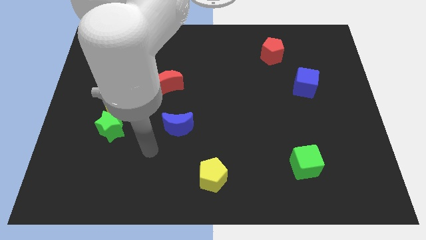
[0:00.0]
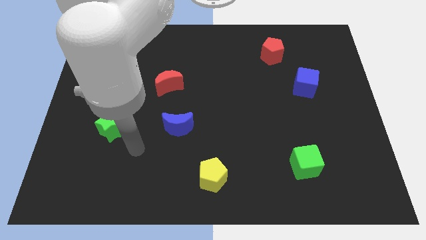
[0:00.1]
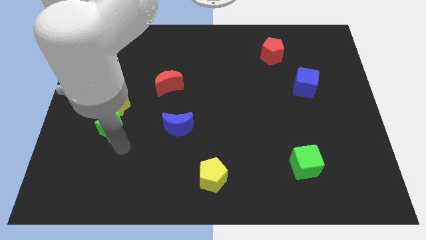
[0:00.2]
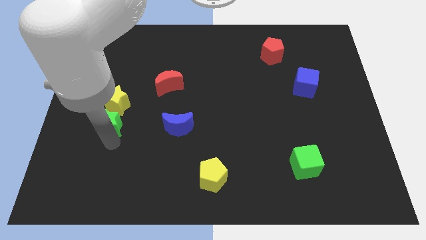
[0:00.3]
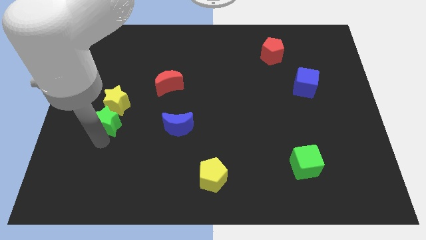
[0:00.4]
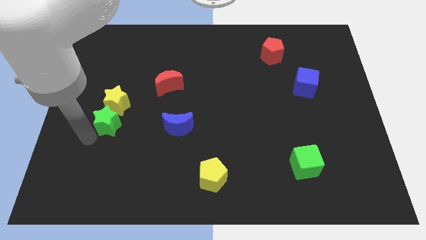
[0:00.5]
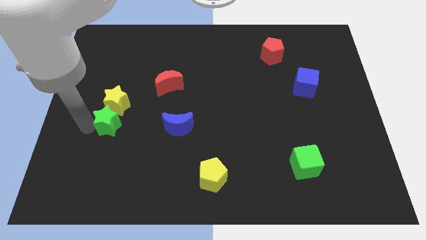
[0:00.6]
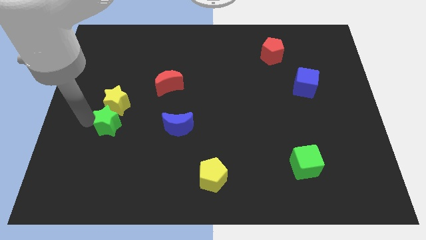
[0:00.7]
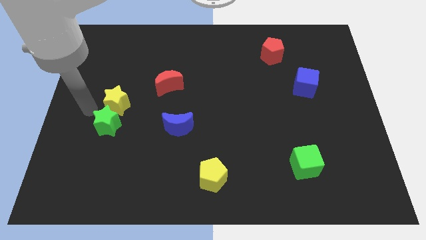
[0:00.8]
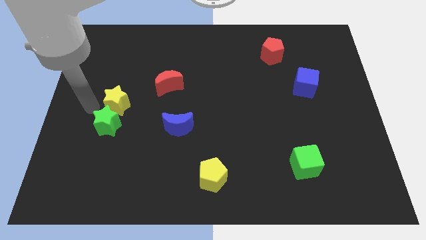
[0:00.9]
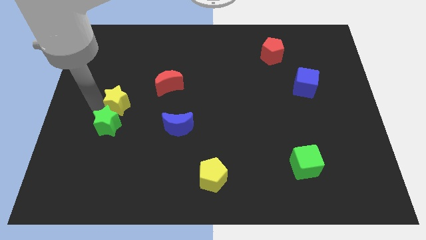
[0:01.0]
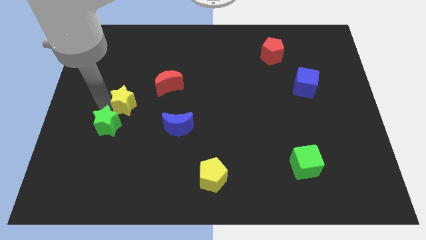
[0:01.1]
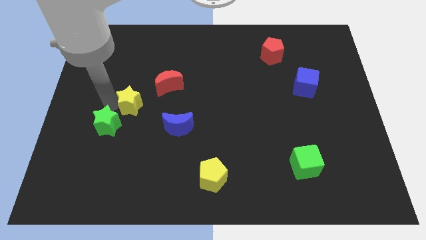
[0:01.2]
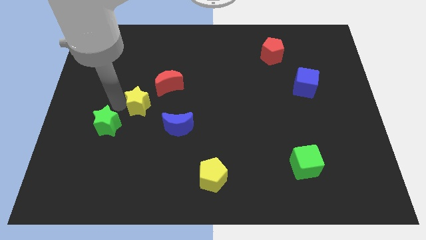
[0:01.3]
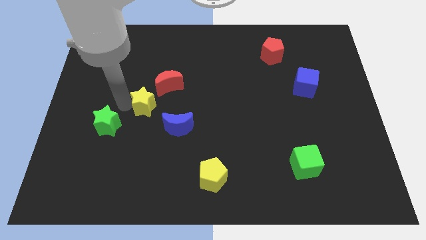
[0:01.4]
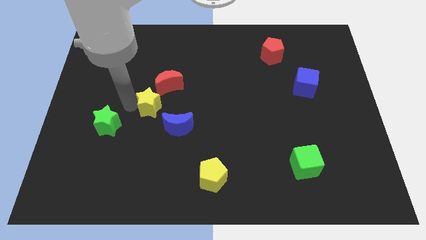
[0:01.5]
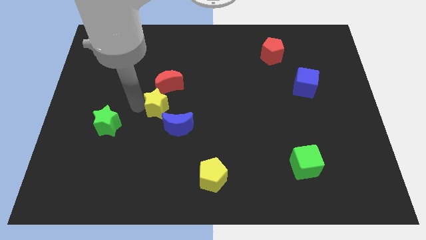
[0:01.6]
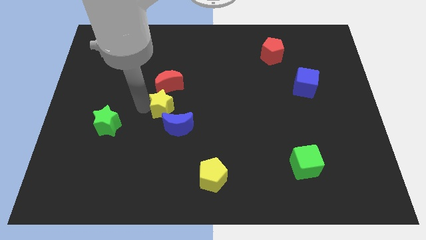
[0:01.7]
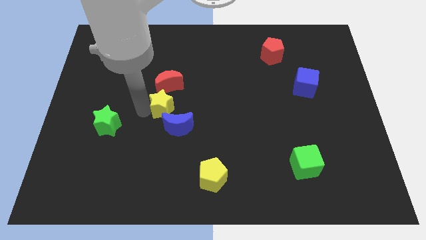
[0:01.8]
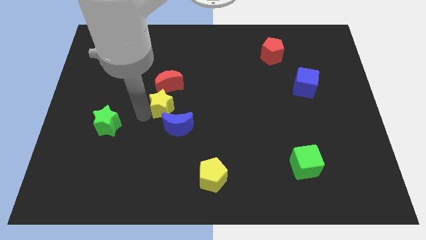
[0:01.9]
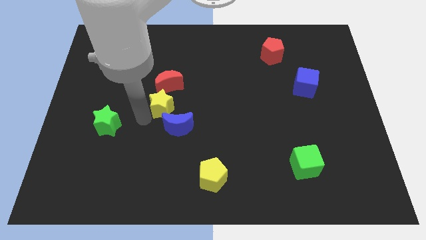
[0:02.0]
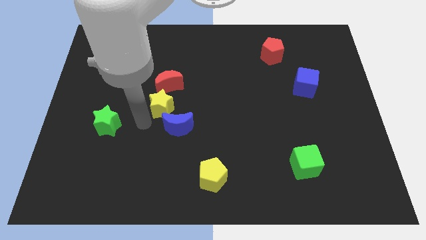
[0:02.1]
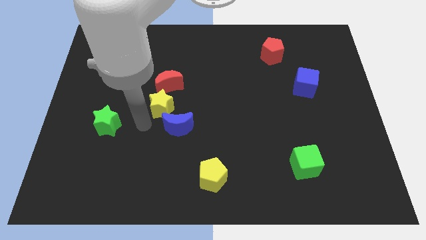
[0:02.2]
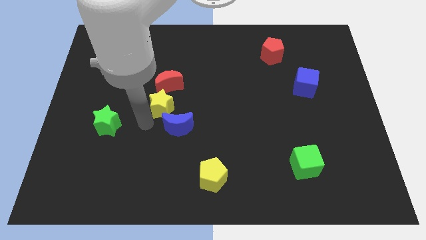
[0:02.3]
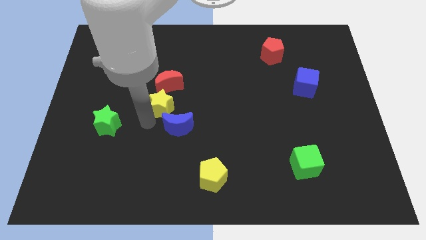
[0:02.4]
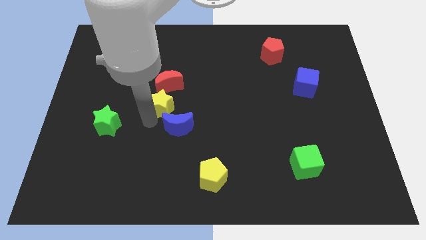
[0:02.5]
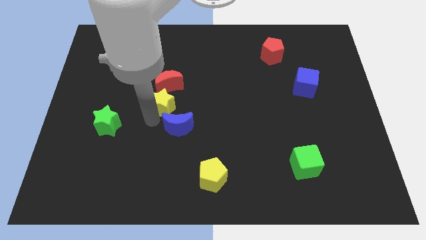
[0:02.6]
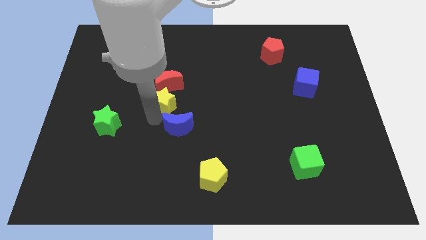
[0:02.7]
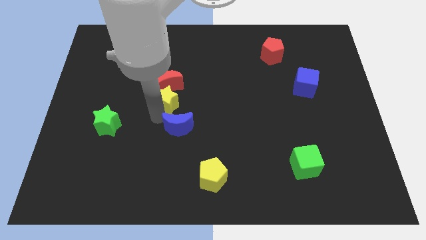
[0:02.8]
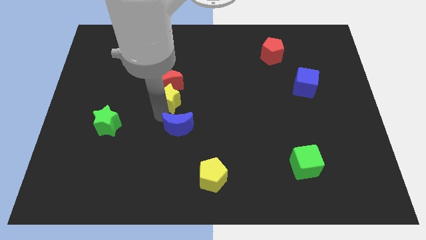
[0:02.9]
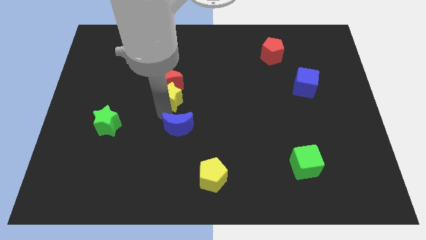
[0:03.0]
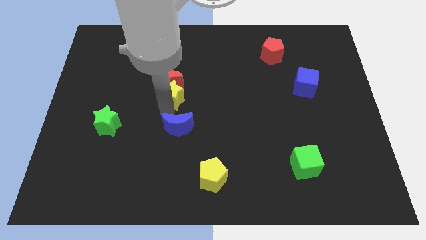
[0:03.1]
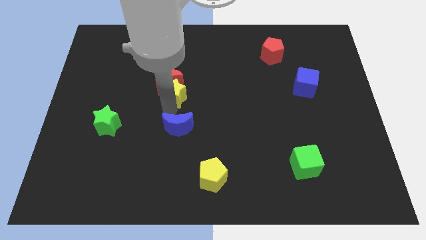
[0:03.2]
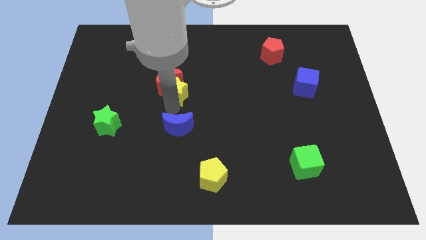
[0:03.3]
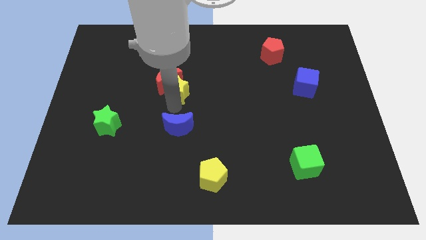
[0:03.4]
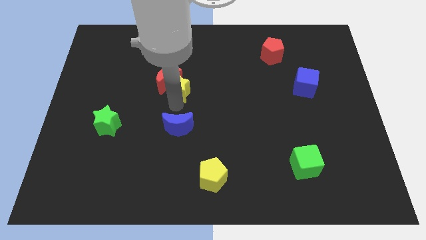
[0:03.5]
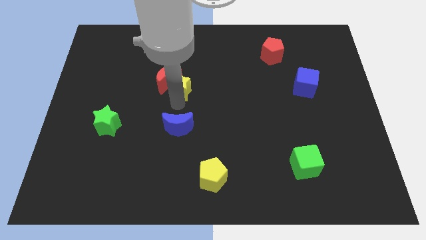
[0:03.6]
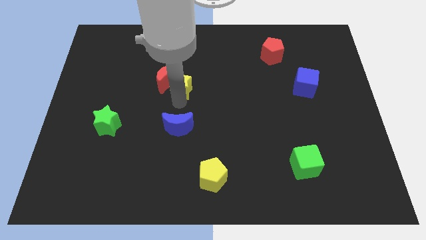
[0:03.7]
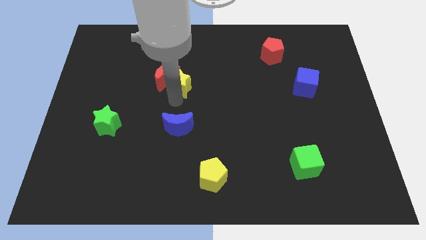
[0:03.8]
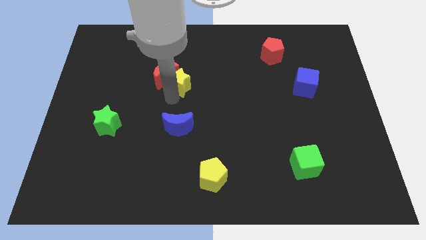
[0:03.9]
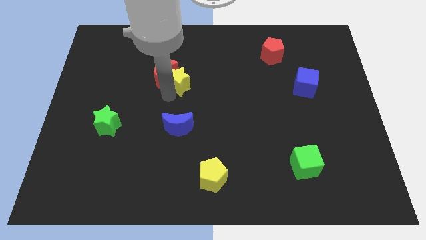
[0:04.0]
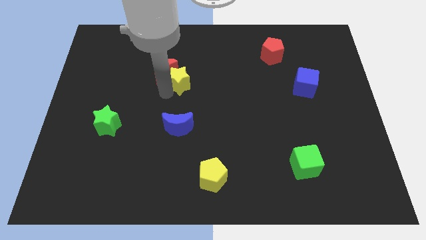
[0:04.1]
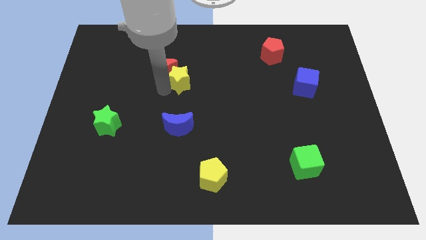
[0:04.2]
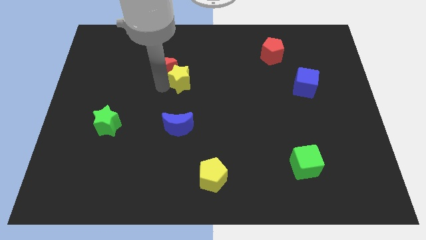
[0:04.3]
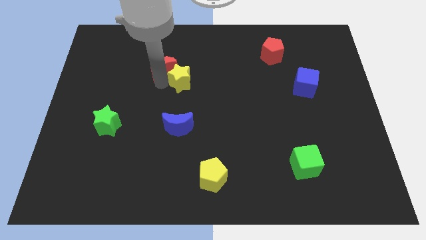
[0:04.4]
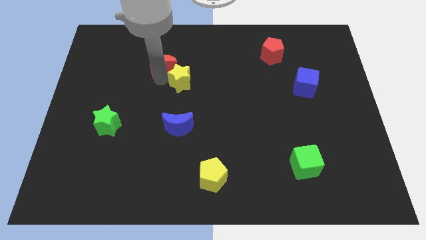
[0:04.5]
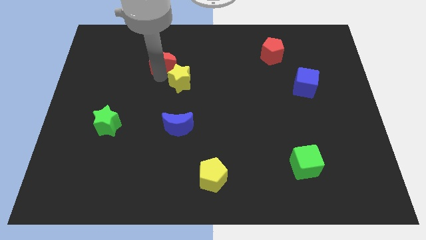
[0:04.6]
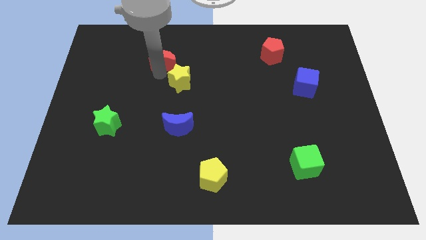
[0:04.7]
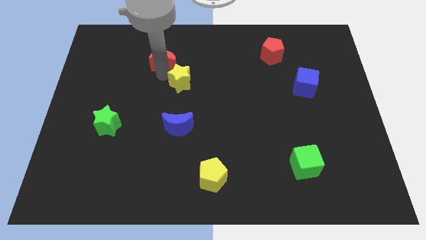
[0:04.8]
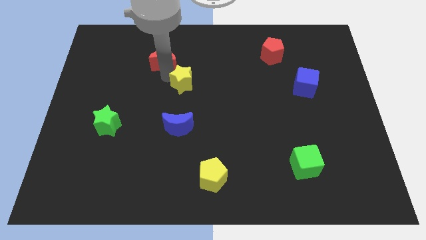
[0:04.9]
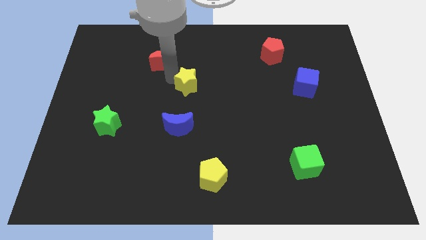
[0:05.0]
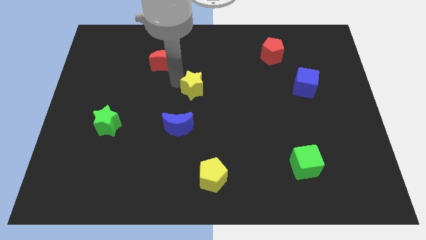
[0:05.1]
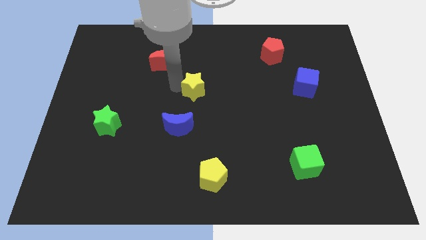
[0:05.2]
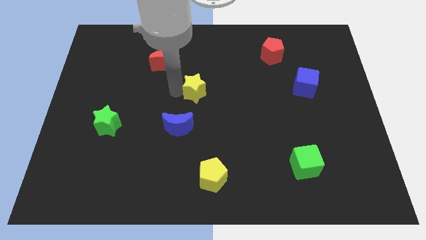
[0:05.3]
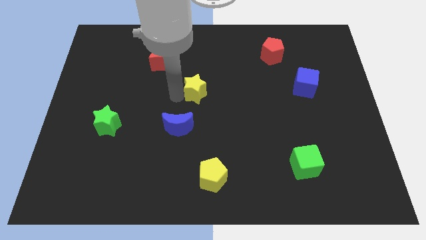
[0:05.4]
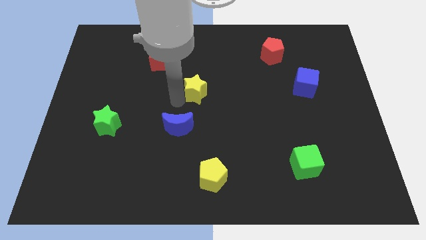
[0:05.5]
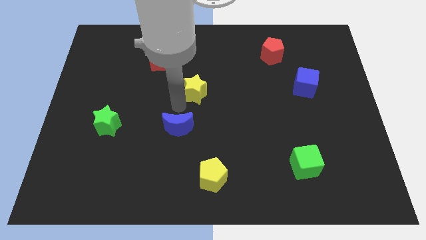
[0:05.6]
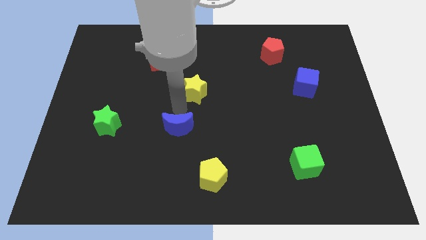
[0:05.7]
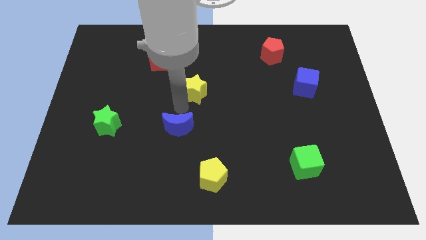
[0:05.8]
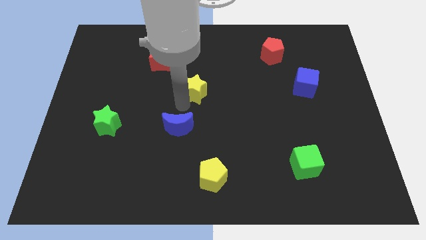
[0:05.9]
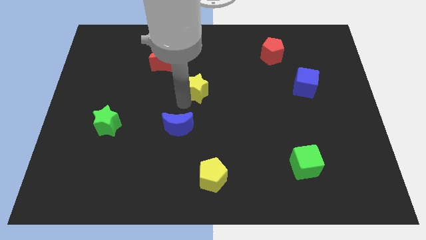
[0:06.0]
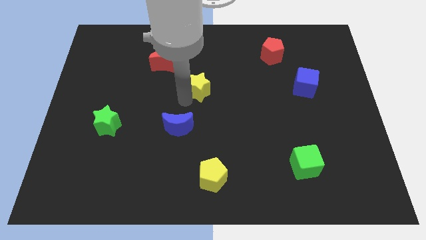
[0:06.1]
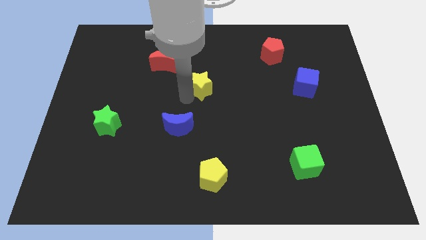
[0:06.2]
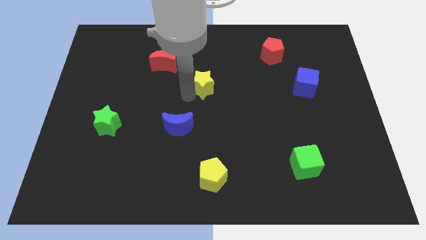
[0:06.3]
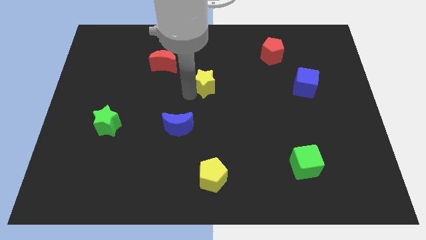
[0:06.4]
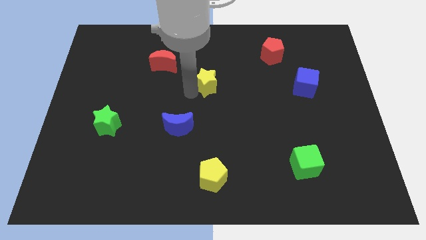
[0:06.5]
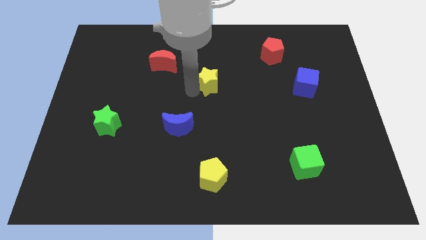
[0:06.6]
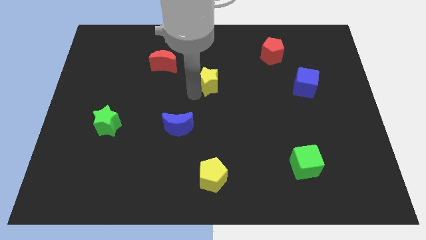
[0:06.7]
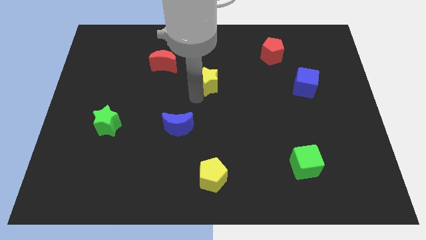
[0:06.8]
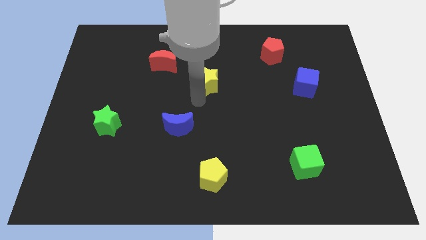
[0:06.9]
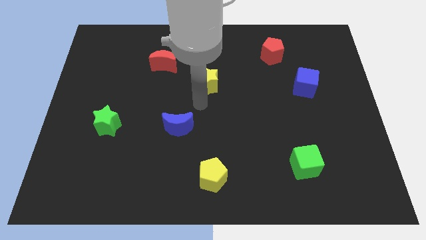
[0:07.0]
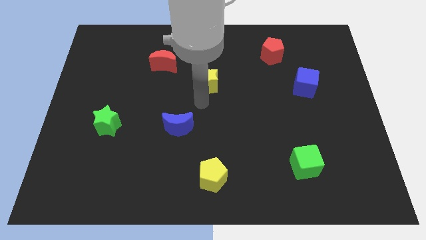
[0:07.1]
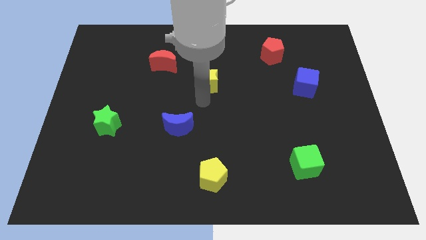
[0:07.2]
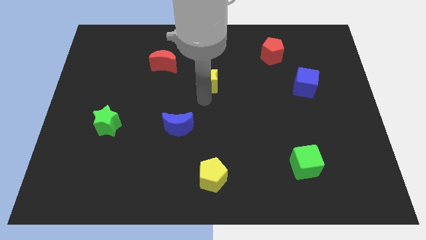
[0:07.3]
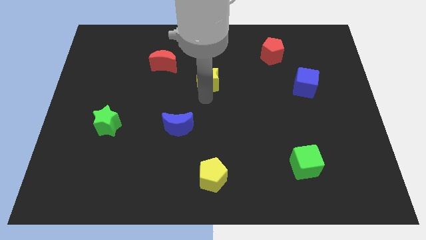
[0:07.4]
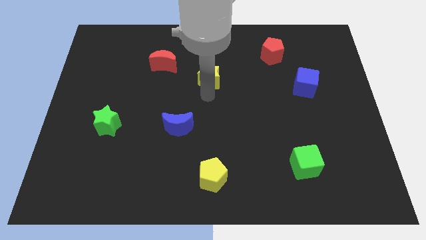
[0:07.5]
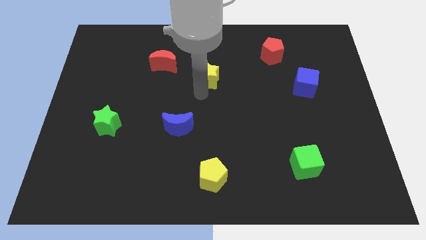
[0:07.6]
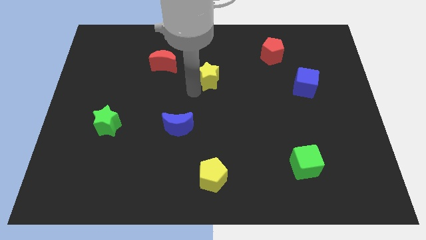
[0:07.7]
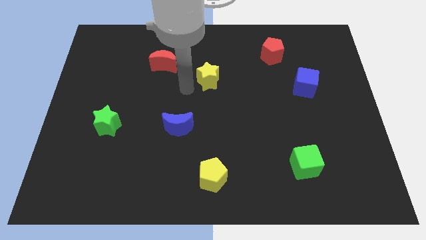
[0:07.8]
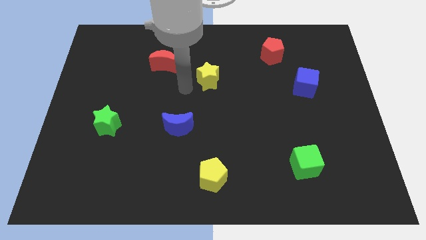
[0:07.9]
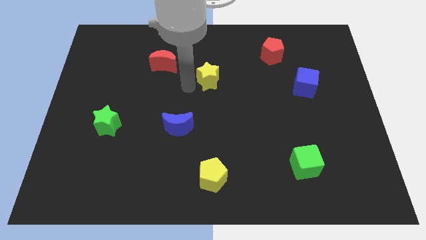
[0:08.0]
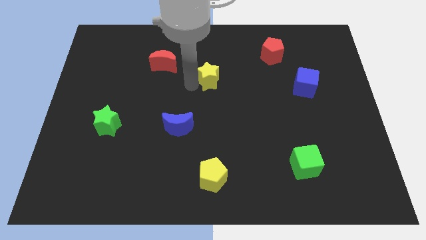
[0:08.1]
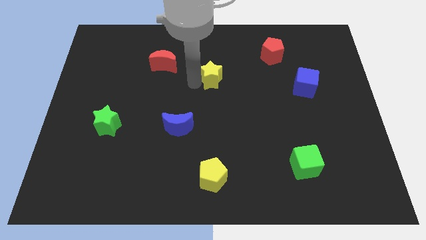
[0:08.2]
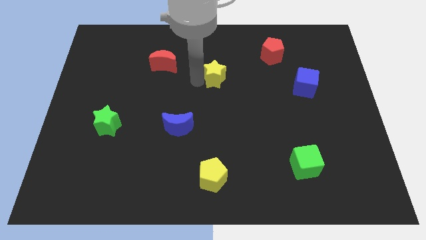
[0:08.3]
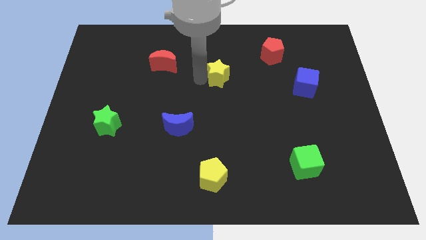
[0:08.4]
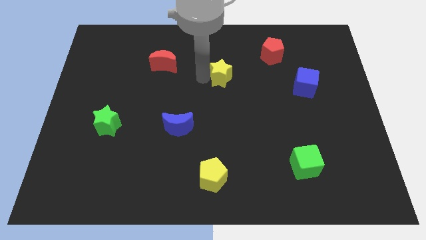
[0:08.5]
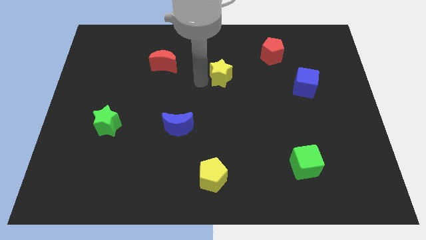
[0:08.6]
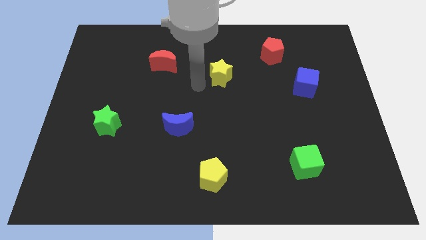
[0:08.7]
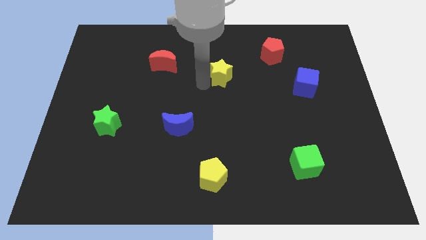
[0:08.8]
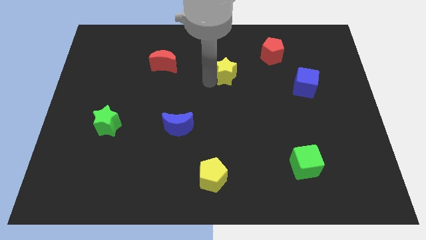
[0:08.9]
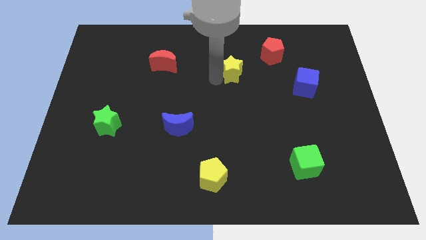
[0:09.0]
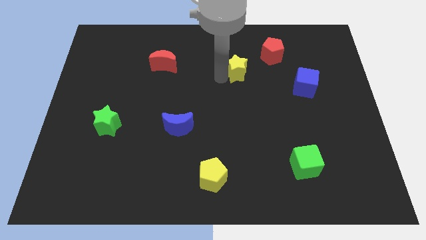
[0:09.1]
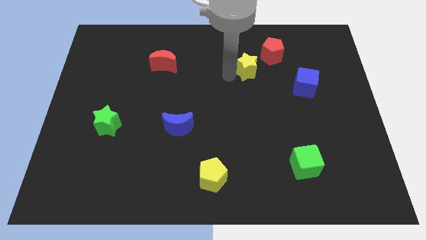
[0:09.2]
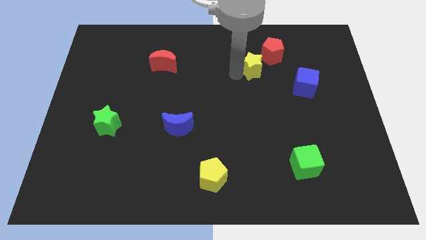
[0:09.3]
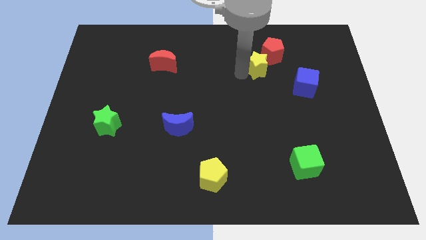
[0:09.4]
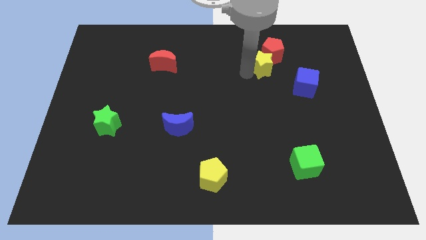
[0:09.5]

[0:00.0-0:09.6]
push the yellow star towards the red pentagon
